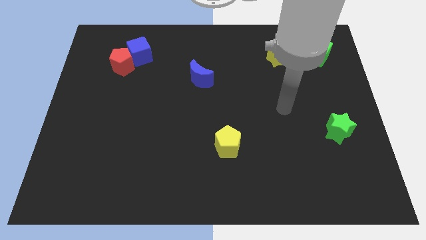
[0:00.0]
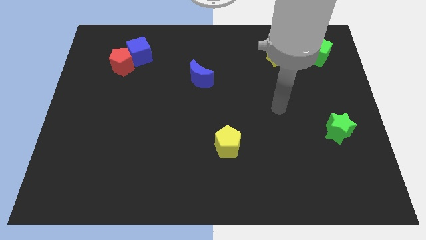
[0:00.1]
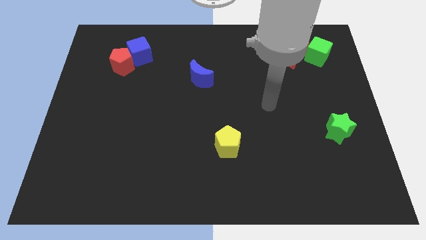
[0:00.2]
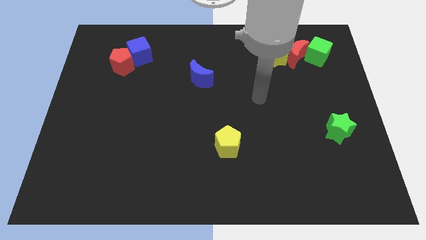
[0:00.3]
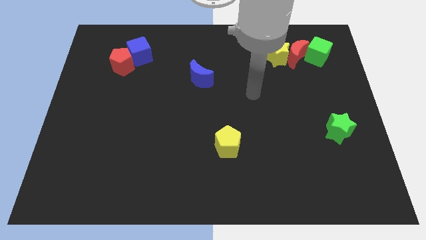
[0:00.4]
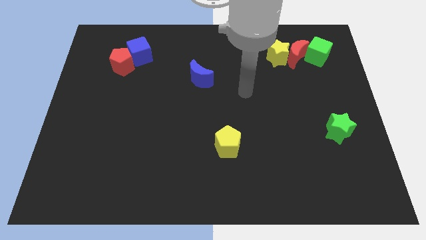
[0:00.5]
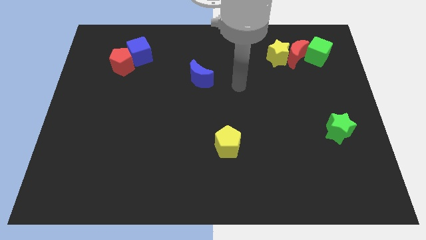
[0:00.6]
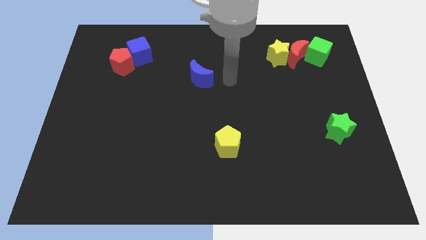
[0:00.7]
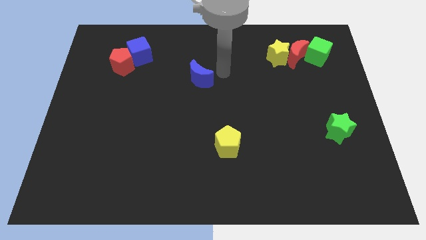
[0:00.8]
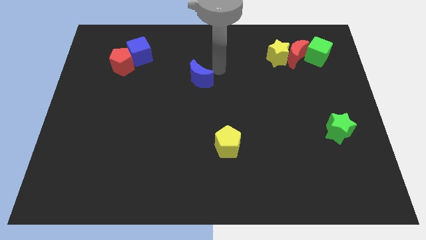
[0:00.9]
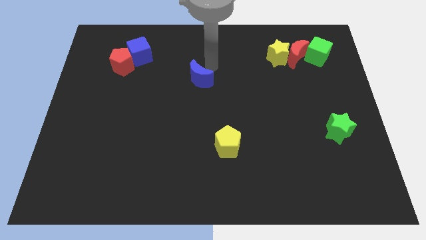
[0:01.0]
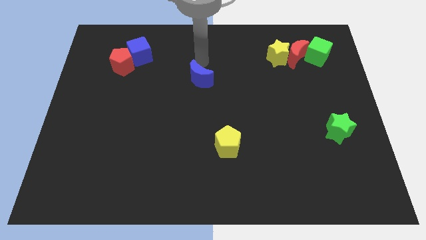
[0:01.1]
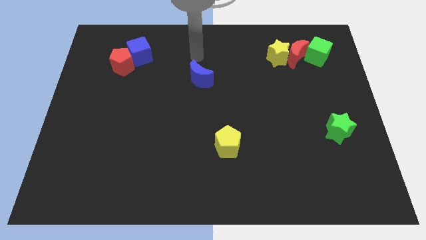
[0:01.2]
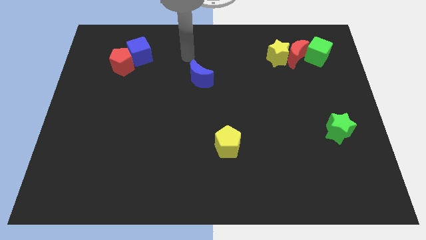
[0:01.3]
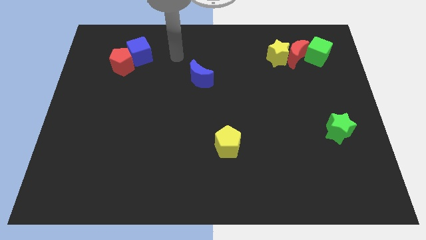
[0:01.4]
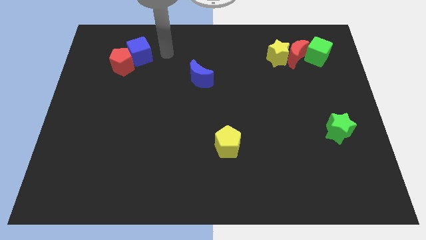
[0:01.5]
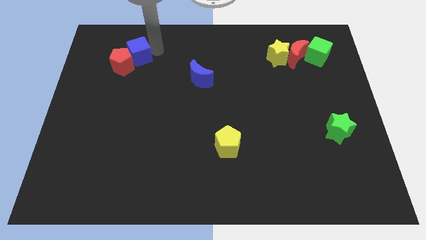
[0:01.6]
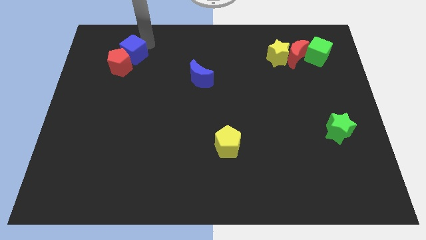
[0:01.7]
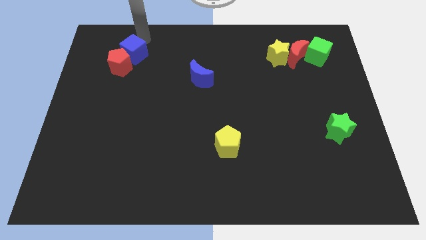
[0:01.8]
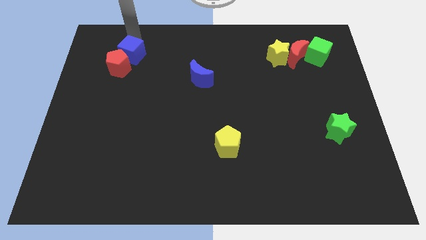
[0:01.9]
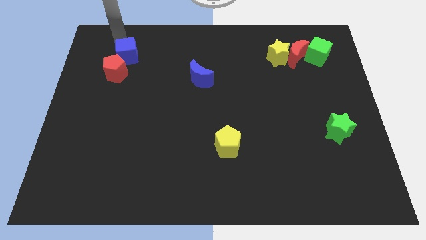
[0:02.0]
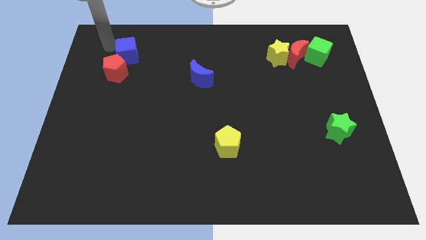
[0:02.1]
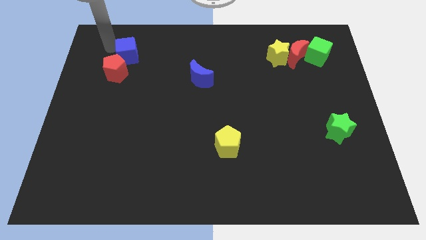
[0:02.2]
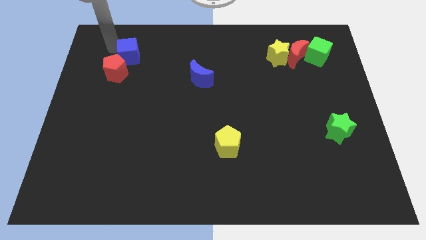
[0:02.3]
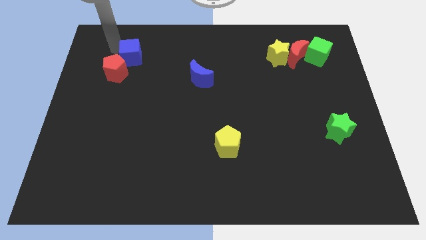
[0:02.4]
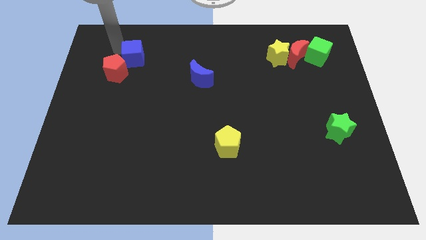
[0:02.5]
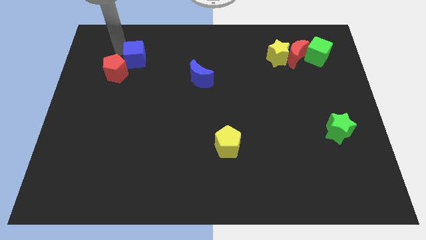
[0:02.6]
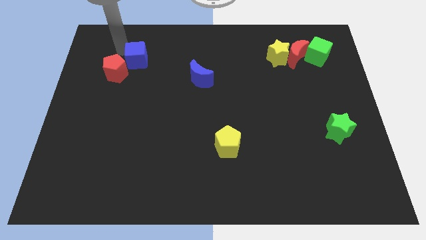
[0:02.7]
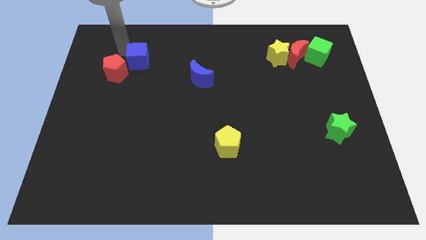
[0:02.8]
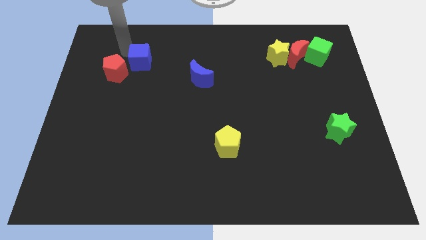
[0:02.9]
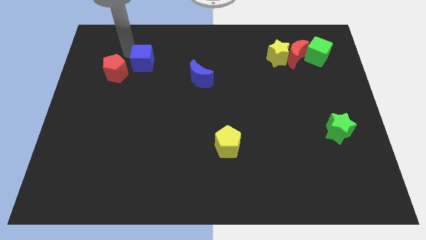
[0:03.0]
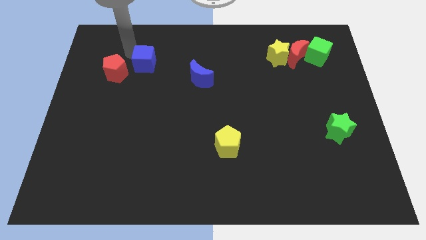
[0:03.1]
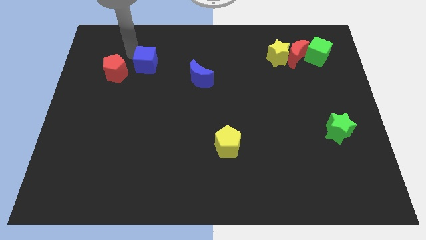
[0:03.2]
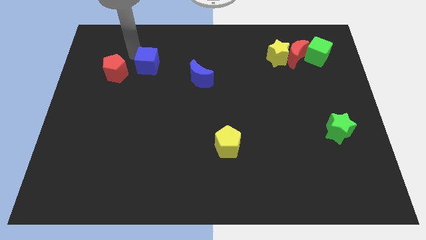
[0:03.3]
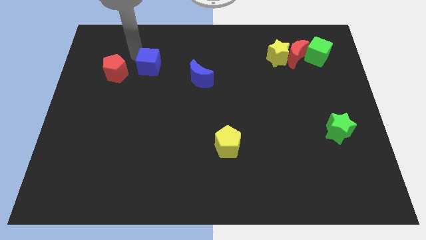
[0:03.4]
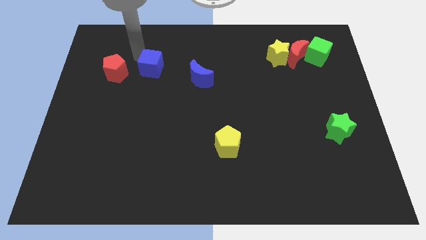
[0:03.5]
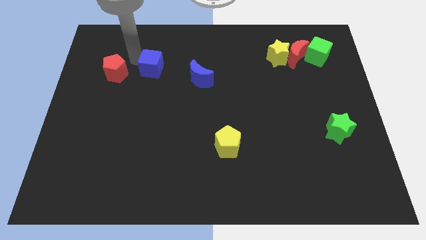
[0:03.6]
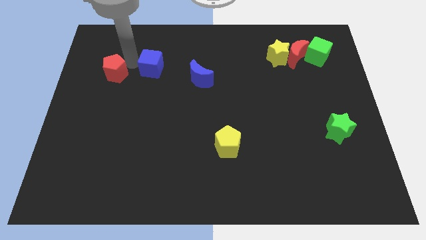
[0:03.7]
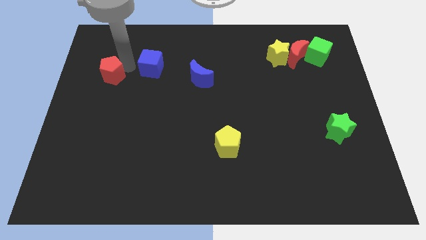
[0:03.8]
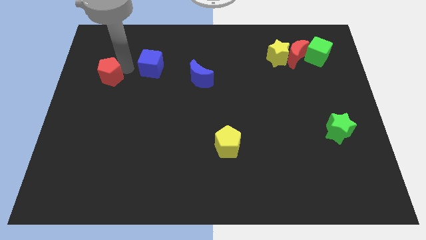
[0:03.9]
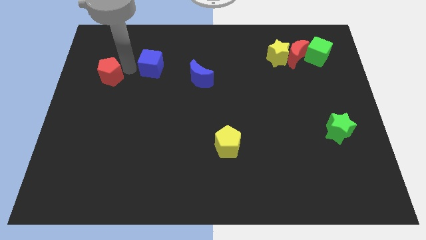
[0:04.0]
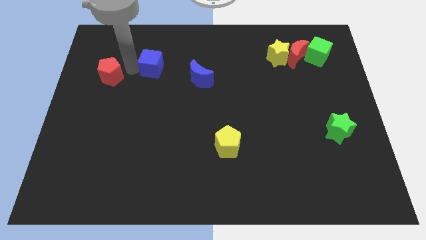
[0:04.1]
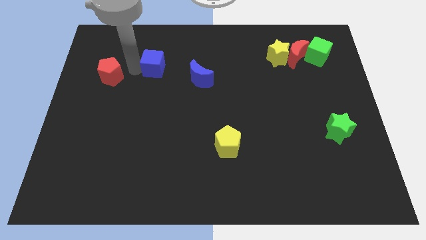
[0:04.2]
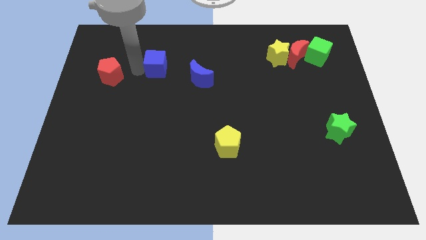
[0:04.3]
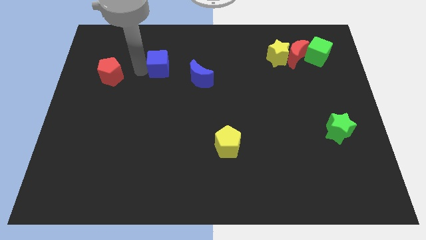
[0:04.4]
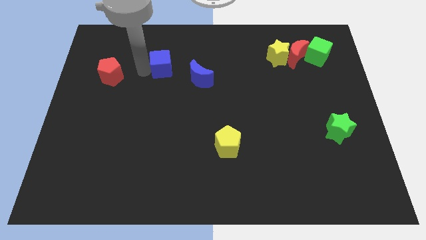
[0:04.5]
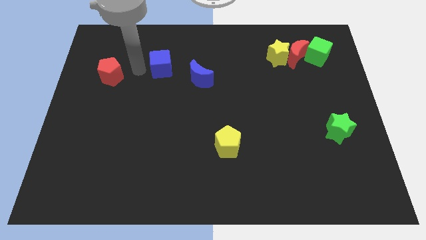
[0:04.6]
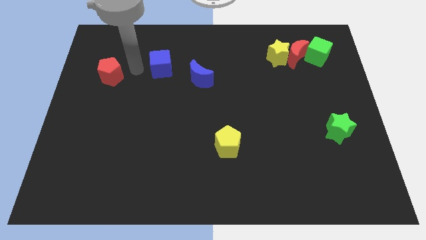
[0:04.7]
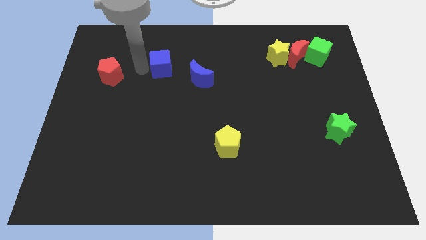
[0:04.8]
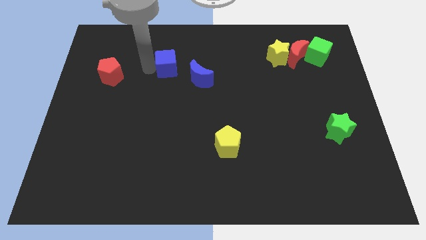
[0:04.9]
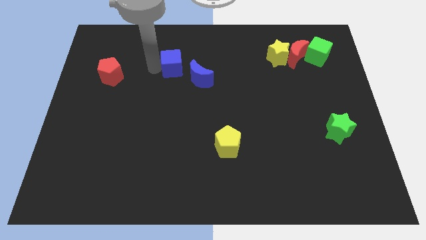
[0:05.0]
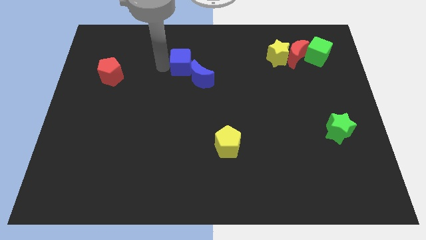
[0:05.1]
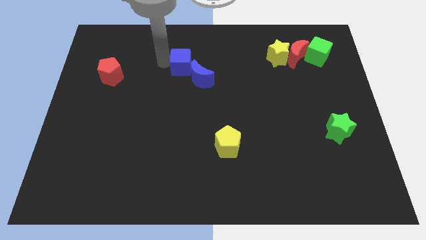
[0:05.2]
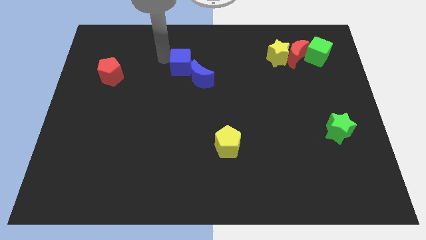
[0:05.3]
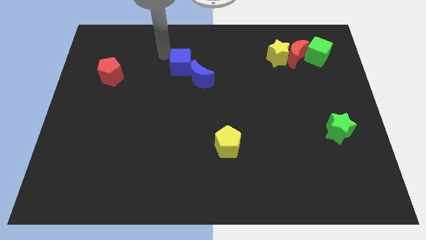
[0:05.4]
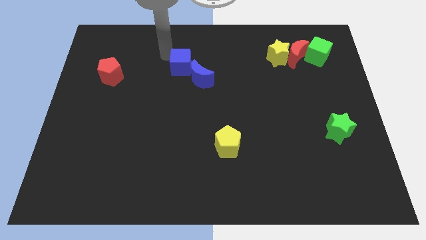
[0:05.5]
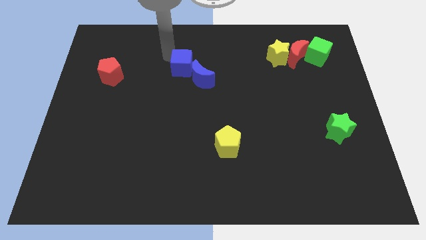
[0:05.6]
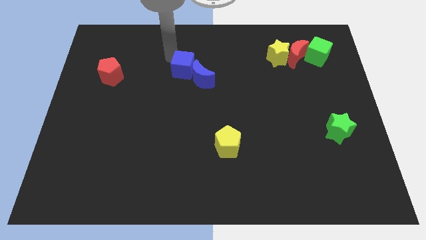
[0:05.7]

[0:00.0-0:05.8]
put the blue cube next to the blue moon

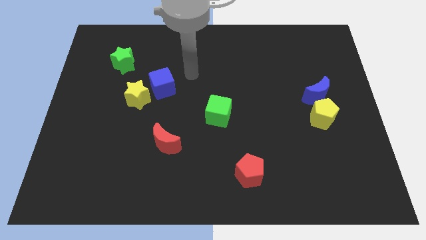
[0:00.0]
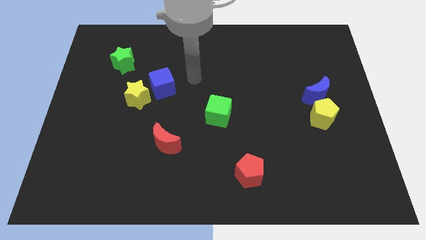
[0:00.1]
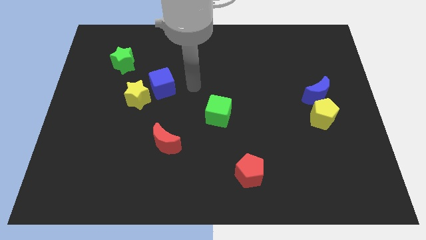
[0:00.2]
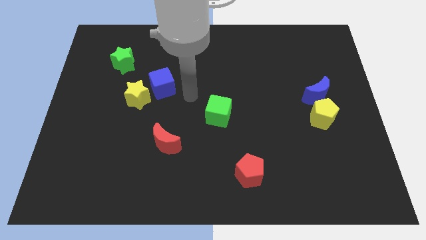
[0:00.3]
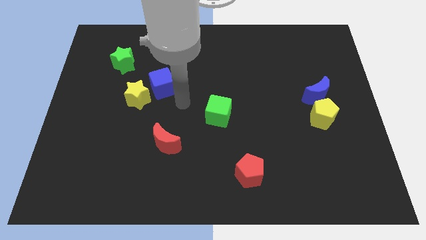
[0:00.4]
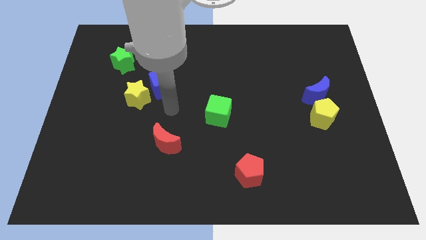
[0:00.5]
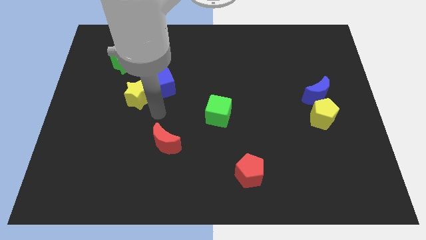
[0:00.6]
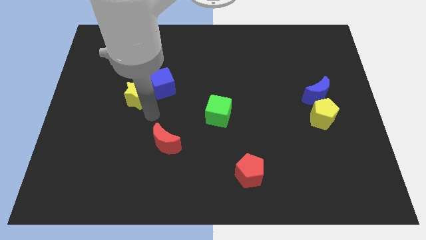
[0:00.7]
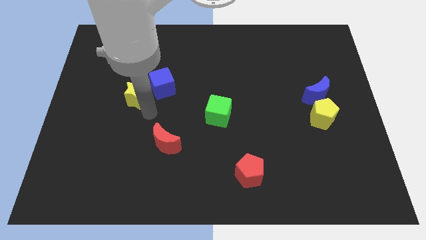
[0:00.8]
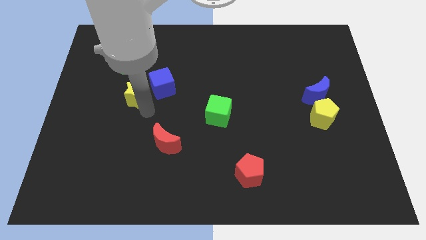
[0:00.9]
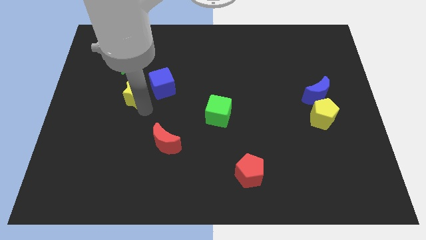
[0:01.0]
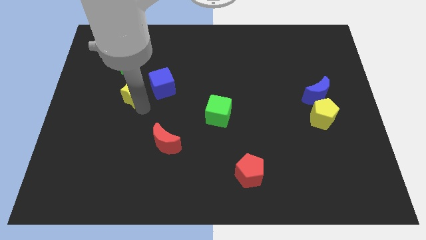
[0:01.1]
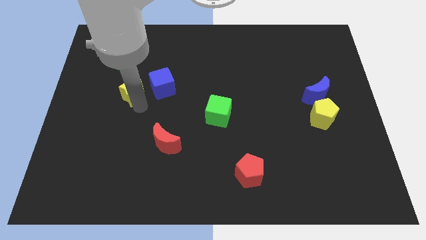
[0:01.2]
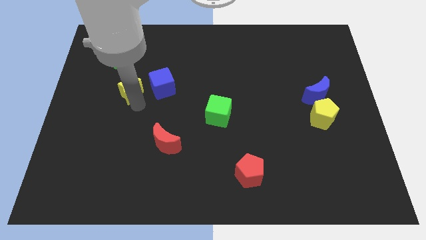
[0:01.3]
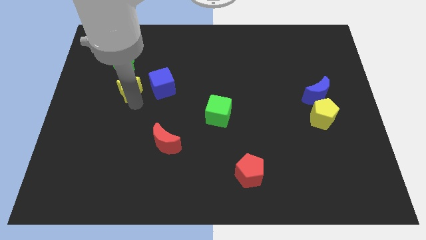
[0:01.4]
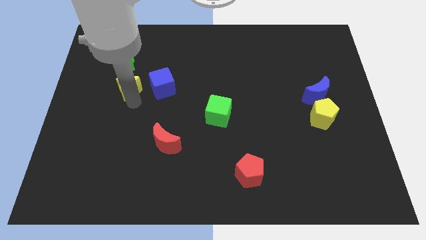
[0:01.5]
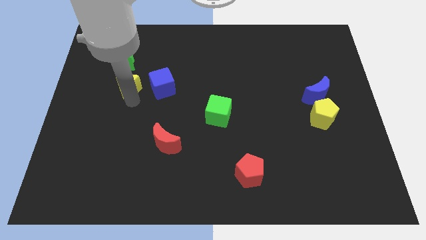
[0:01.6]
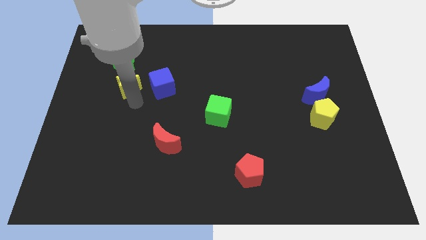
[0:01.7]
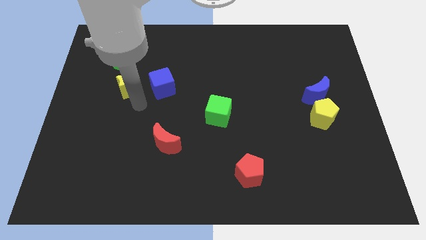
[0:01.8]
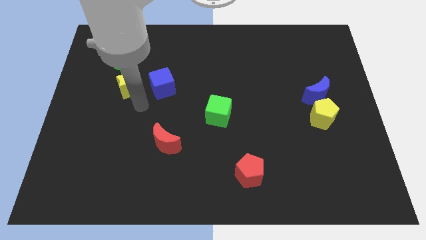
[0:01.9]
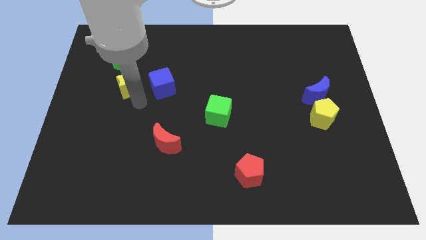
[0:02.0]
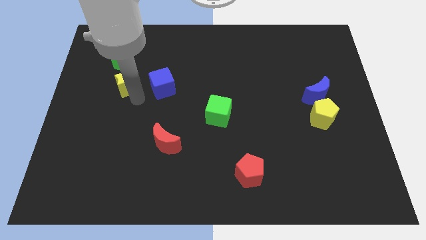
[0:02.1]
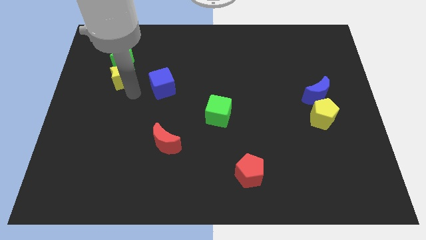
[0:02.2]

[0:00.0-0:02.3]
put the yellow star next to the green star
